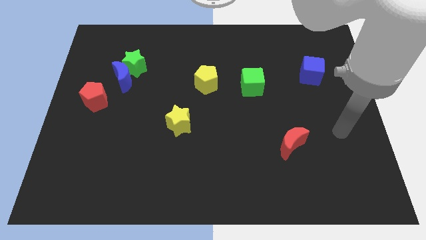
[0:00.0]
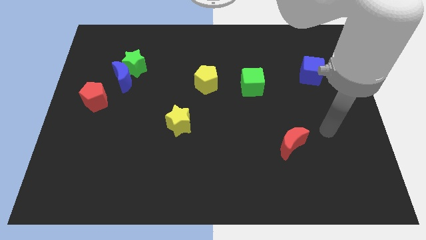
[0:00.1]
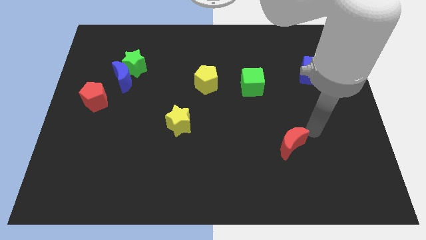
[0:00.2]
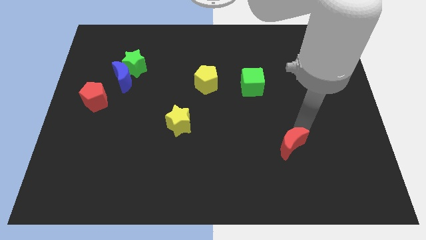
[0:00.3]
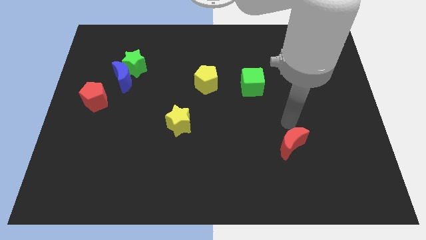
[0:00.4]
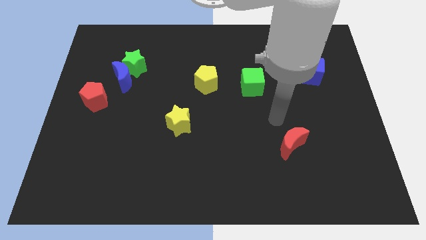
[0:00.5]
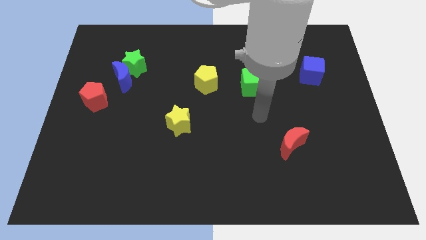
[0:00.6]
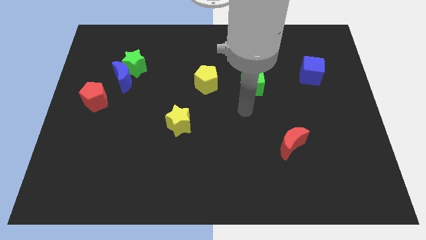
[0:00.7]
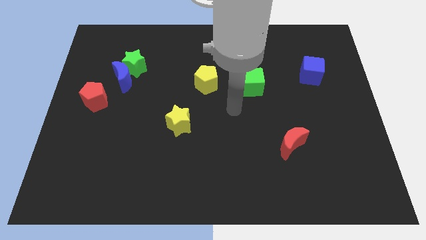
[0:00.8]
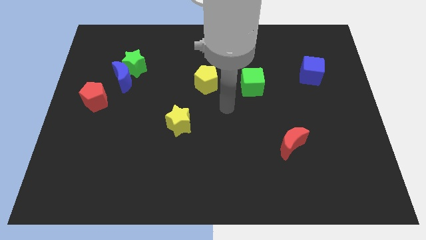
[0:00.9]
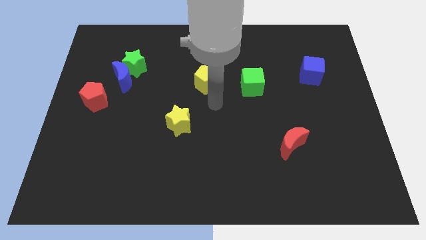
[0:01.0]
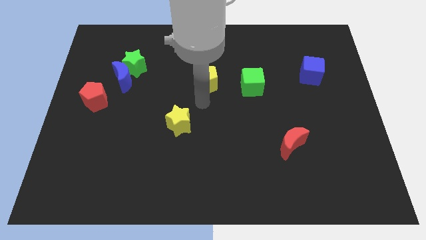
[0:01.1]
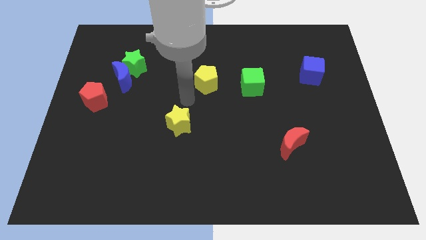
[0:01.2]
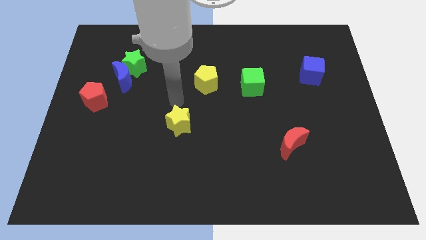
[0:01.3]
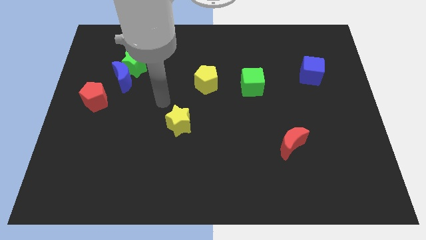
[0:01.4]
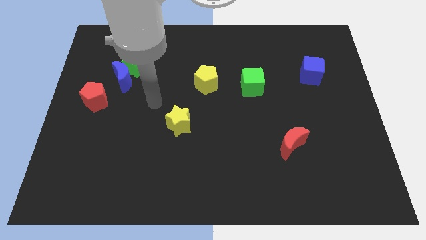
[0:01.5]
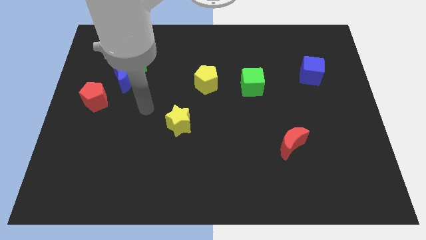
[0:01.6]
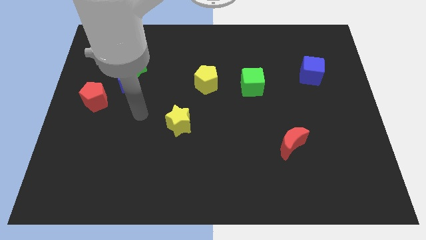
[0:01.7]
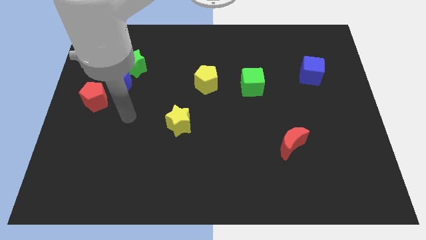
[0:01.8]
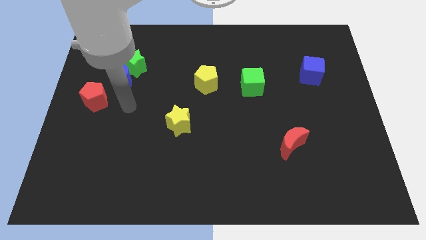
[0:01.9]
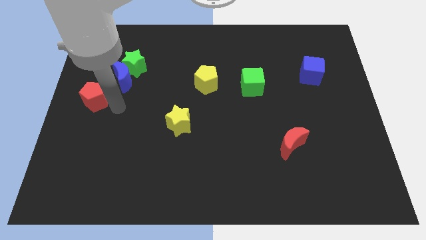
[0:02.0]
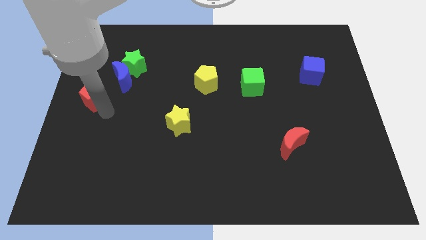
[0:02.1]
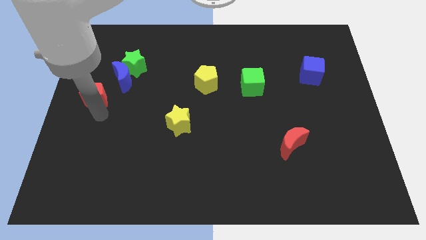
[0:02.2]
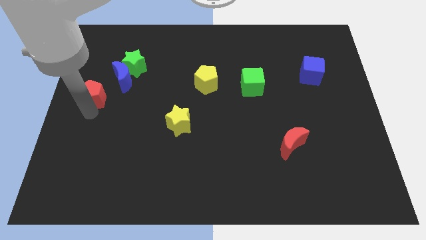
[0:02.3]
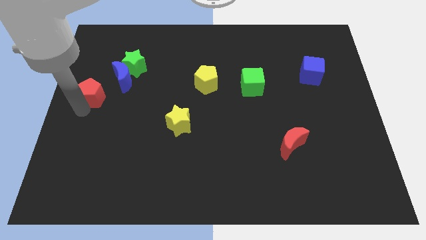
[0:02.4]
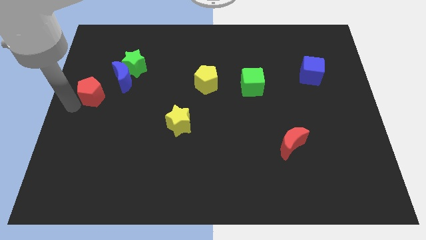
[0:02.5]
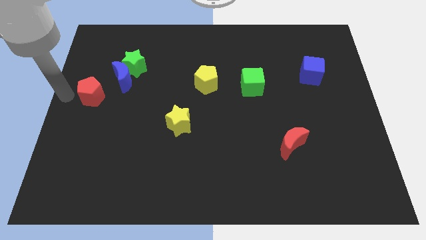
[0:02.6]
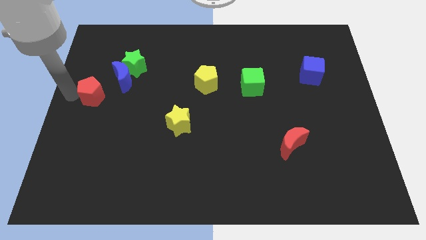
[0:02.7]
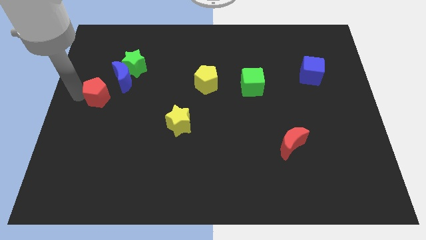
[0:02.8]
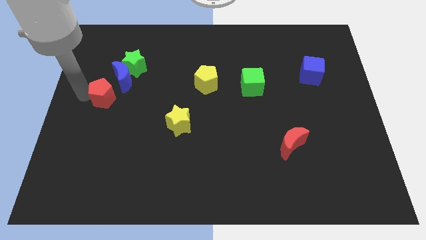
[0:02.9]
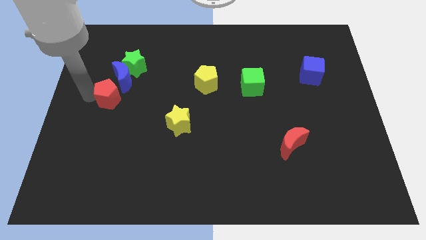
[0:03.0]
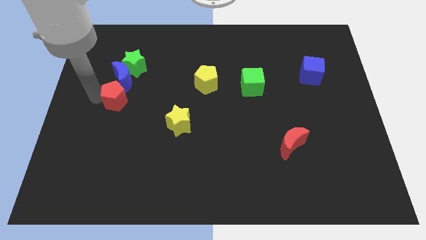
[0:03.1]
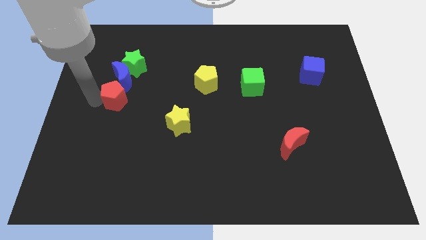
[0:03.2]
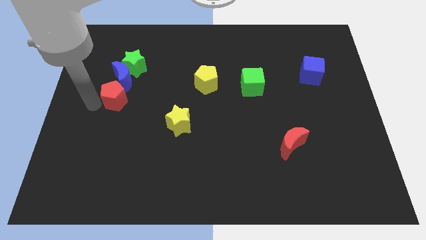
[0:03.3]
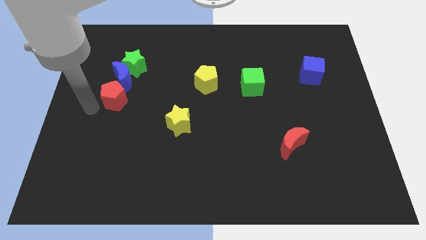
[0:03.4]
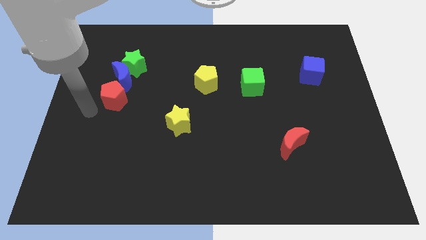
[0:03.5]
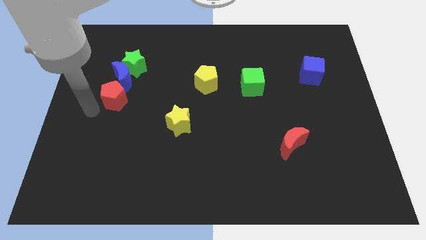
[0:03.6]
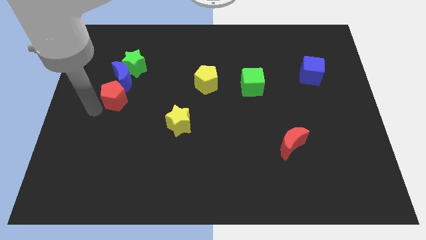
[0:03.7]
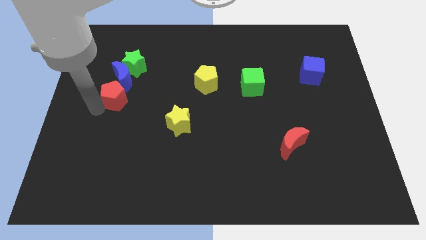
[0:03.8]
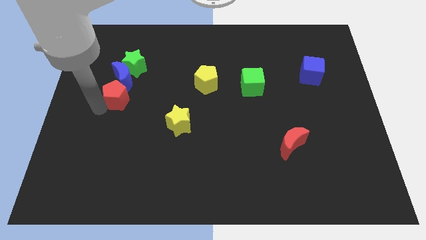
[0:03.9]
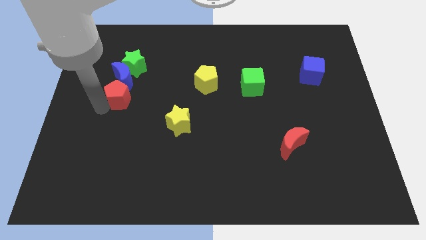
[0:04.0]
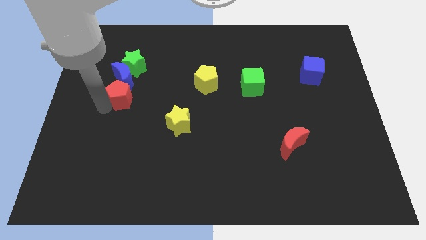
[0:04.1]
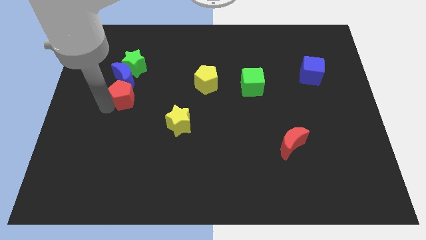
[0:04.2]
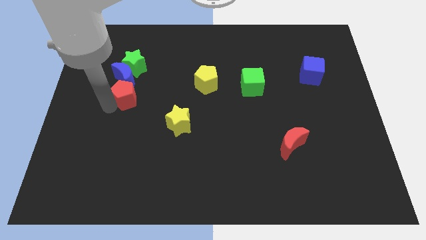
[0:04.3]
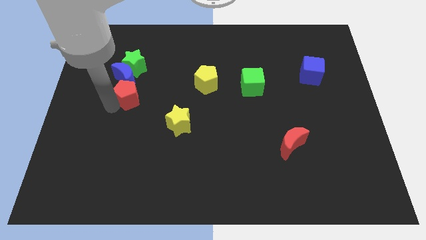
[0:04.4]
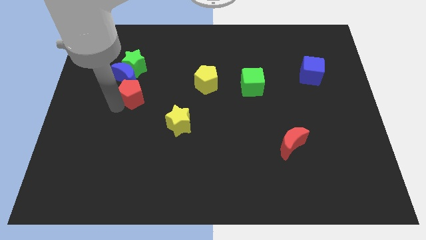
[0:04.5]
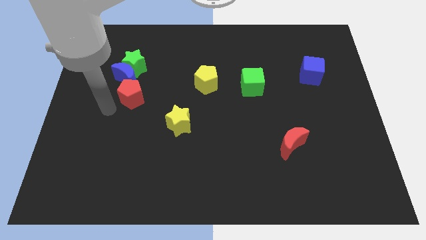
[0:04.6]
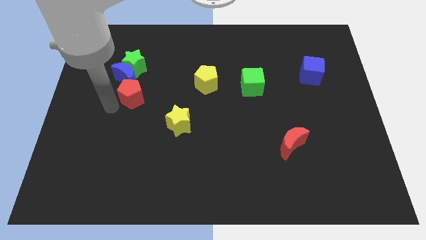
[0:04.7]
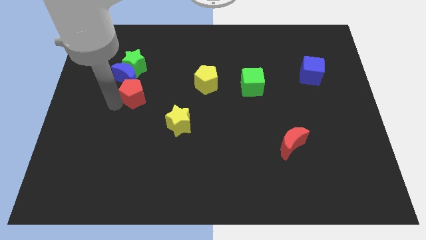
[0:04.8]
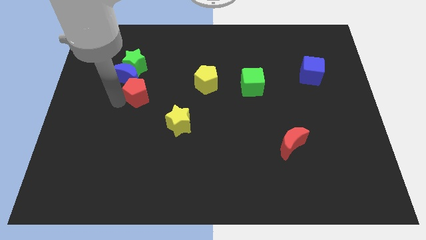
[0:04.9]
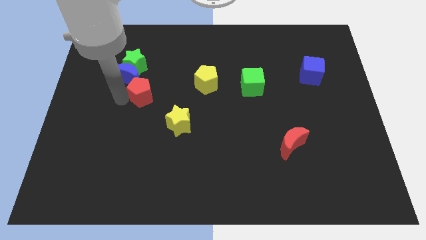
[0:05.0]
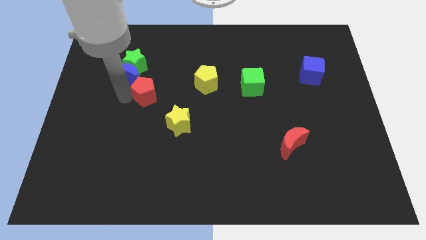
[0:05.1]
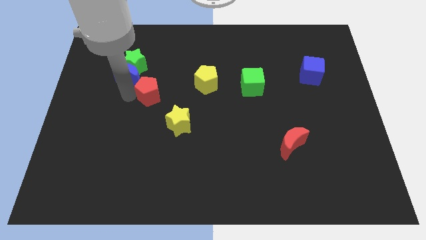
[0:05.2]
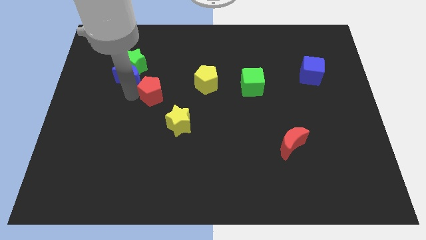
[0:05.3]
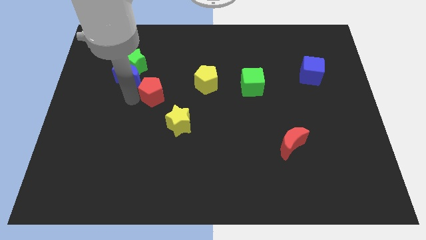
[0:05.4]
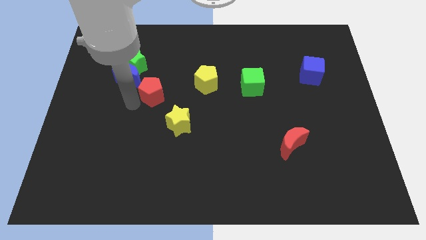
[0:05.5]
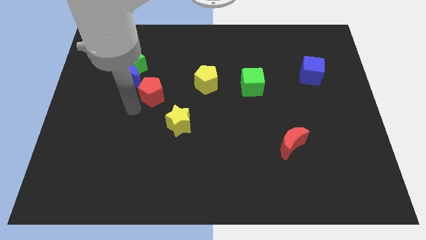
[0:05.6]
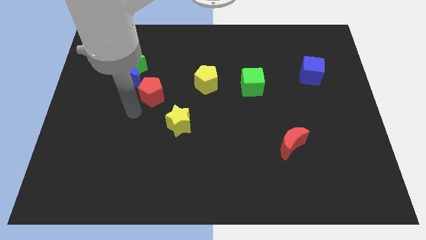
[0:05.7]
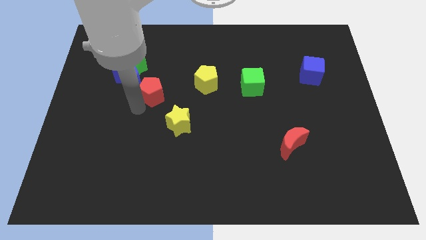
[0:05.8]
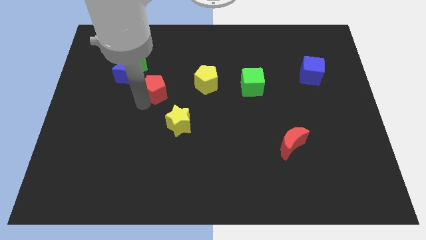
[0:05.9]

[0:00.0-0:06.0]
push the red pentagon to the right of the blue moon

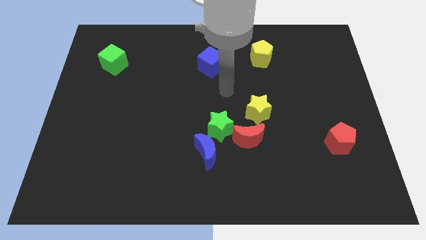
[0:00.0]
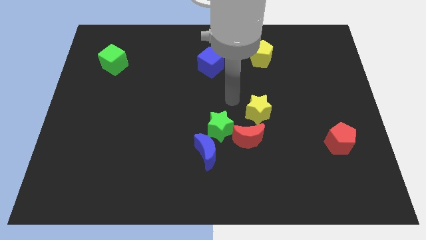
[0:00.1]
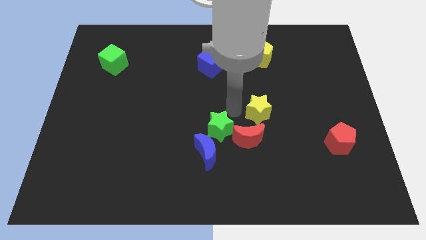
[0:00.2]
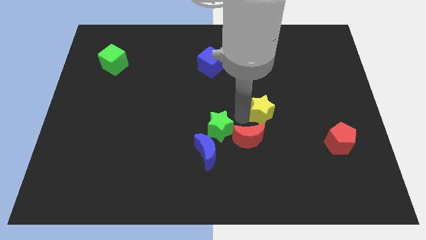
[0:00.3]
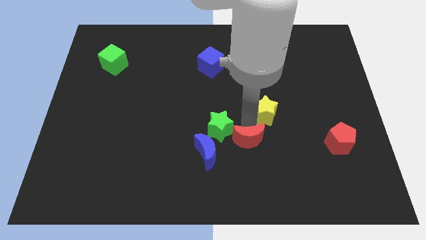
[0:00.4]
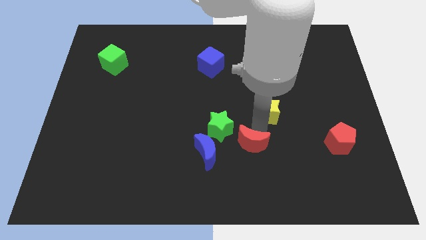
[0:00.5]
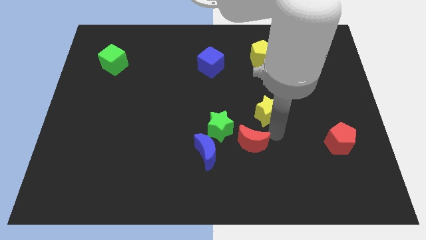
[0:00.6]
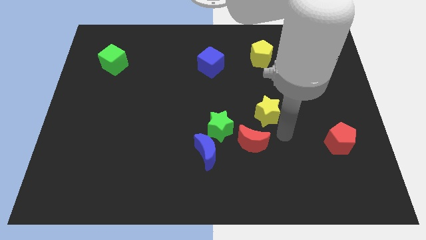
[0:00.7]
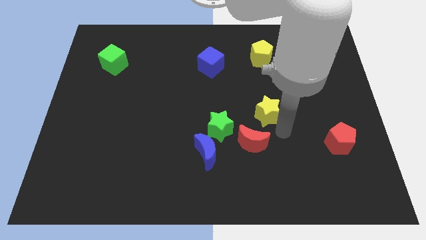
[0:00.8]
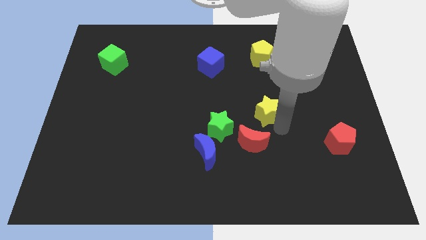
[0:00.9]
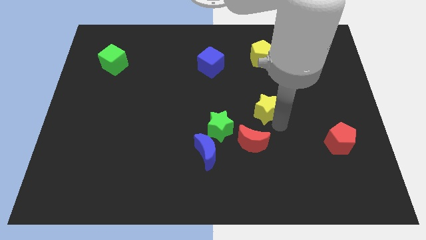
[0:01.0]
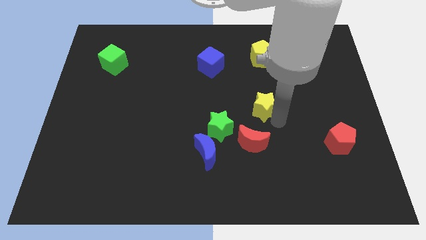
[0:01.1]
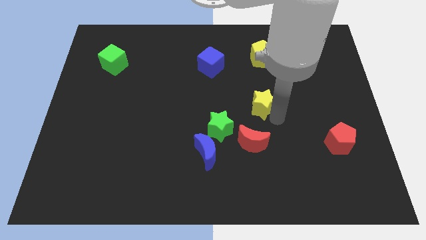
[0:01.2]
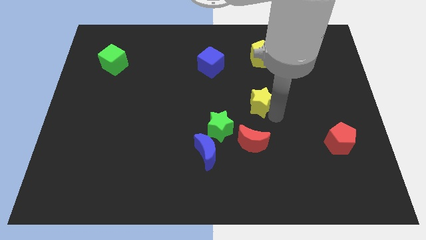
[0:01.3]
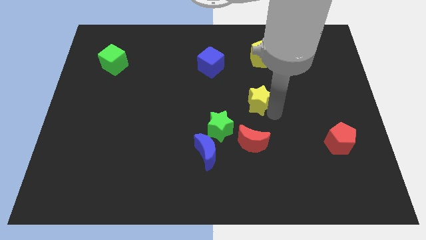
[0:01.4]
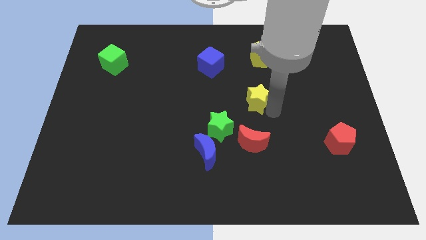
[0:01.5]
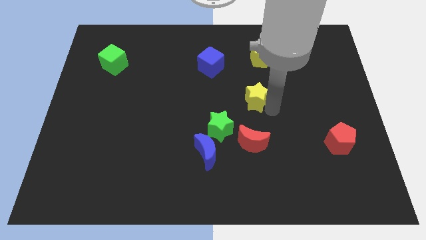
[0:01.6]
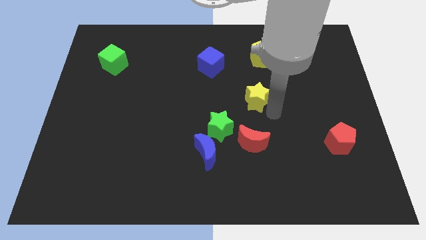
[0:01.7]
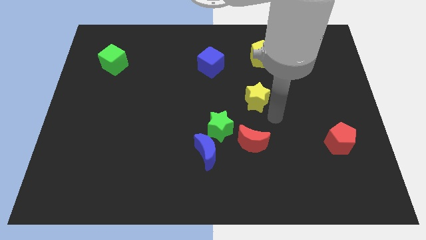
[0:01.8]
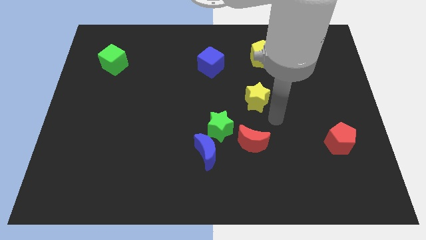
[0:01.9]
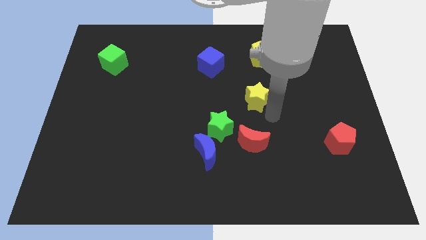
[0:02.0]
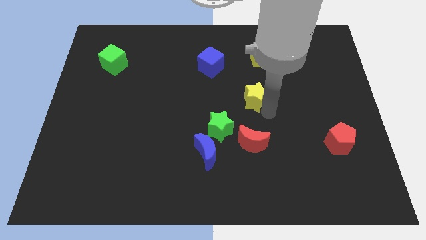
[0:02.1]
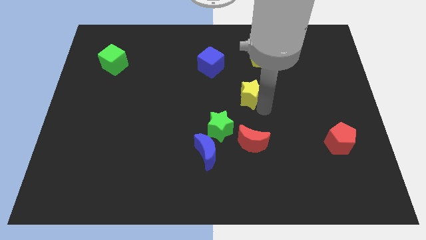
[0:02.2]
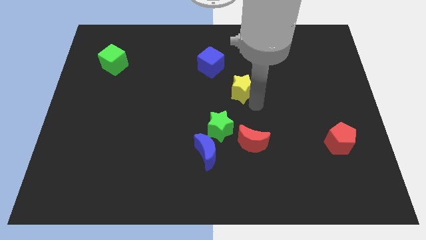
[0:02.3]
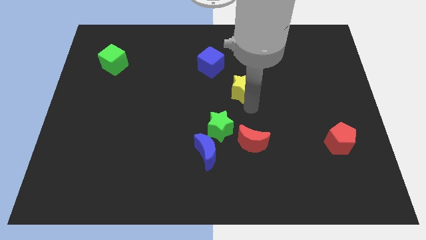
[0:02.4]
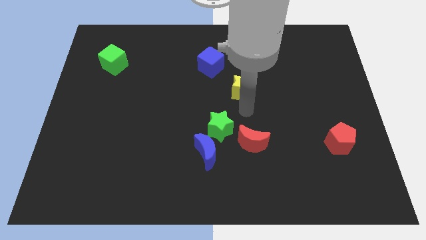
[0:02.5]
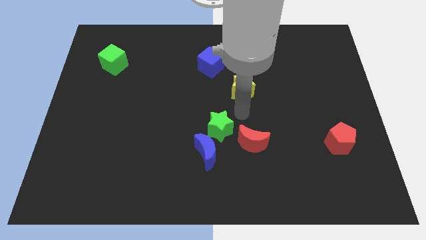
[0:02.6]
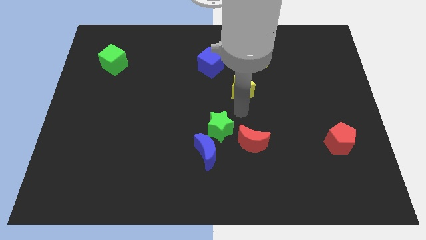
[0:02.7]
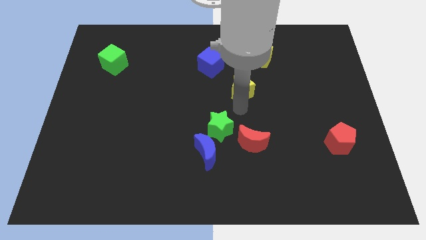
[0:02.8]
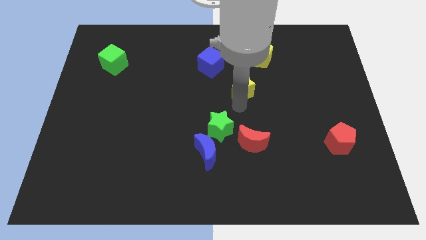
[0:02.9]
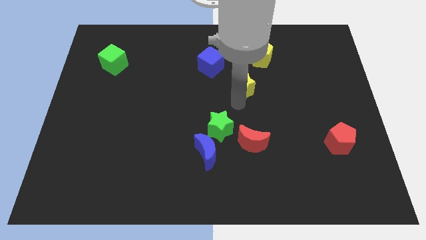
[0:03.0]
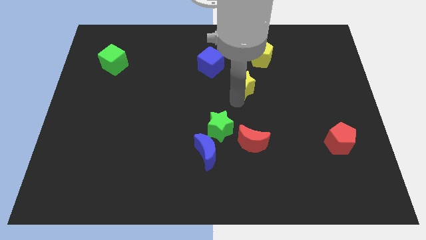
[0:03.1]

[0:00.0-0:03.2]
move the yellow star to the bottom left side of the yellow pentagon
